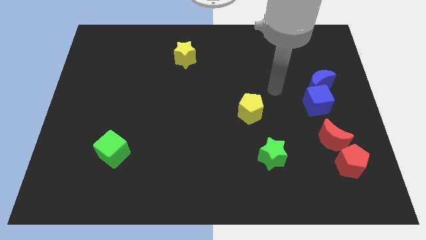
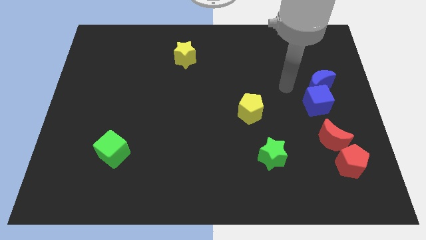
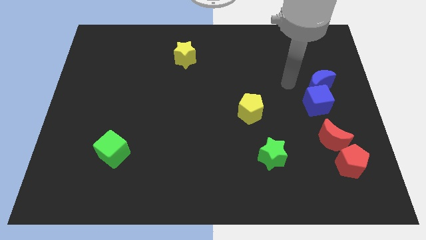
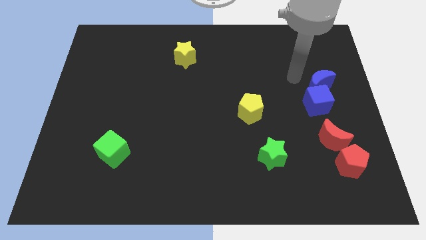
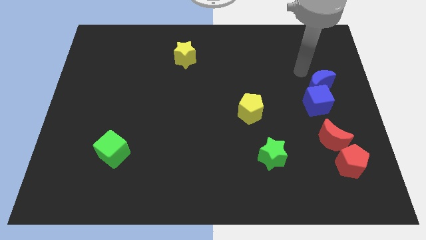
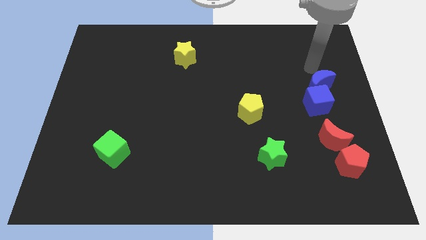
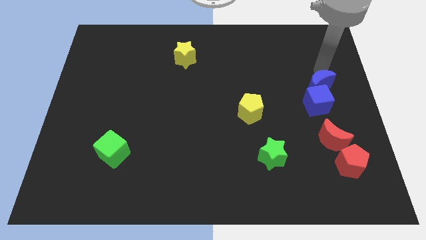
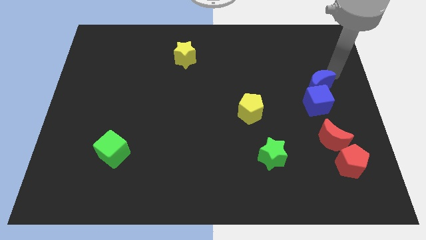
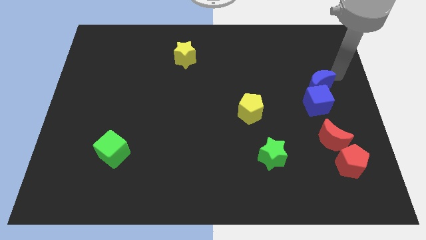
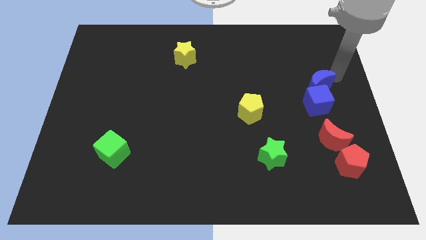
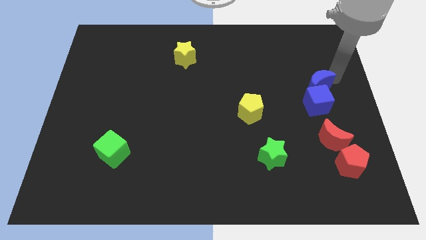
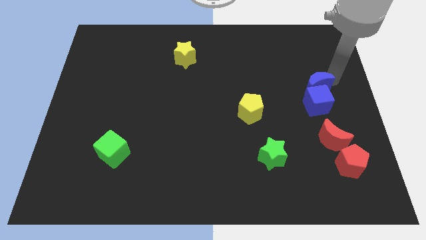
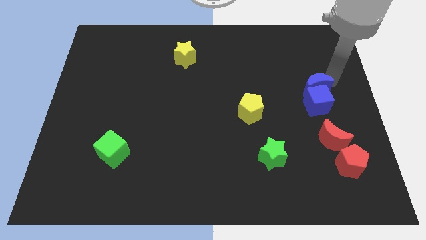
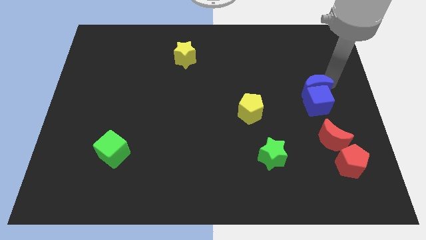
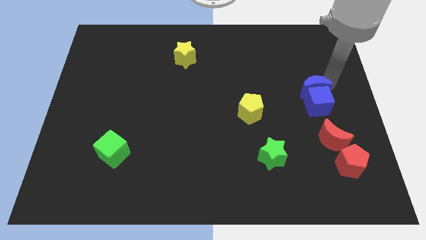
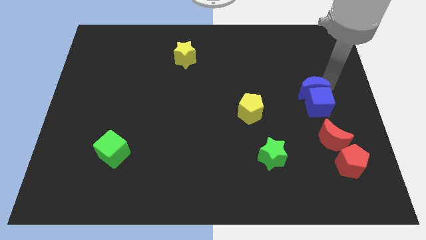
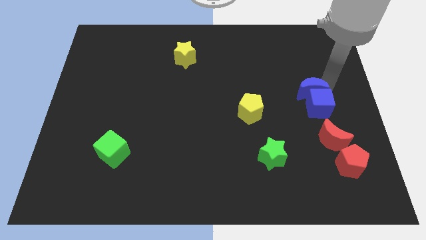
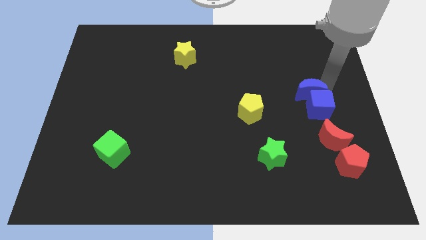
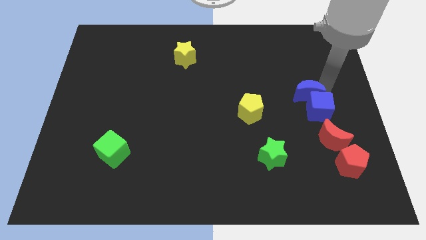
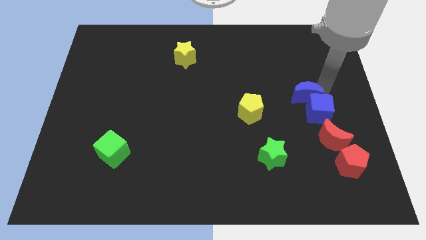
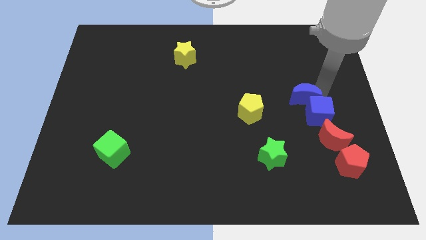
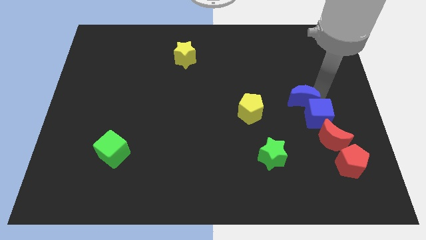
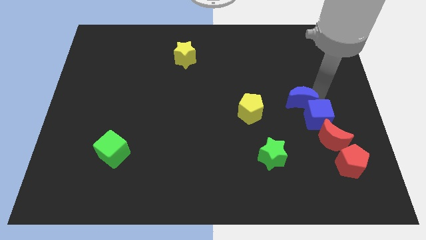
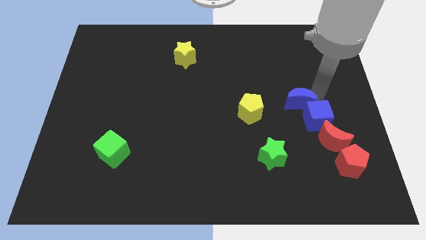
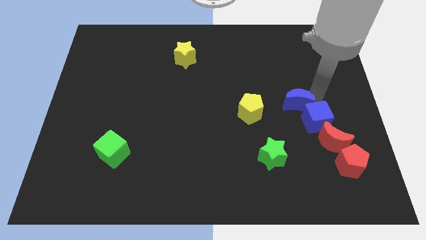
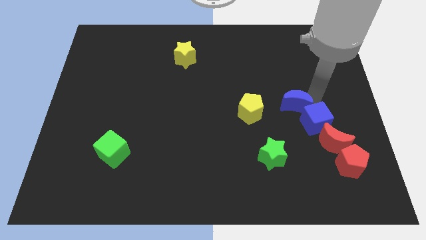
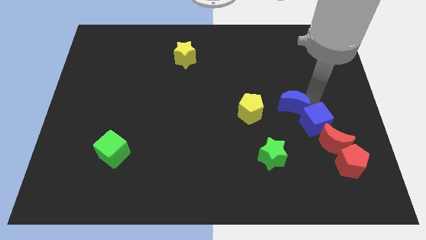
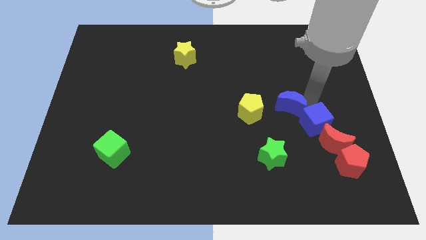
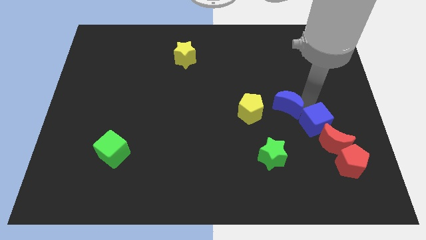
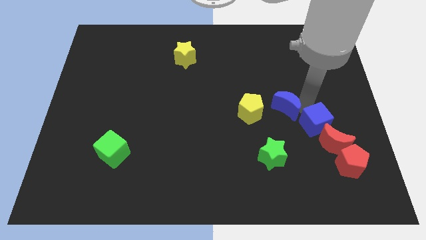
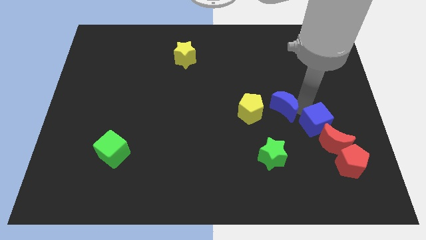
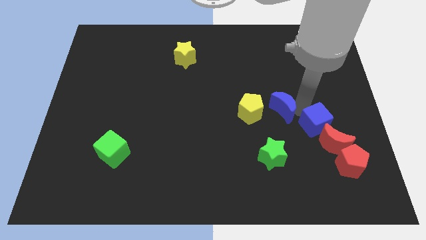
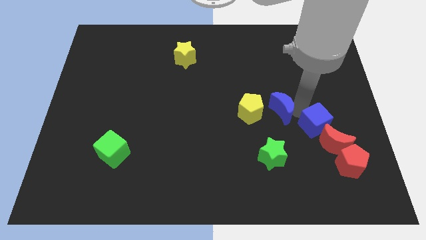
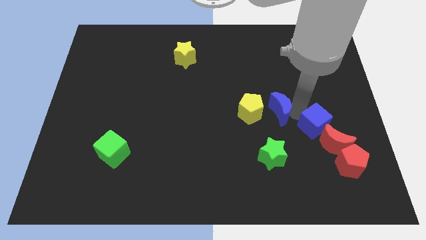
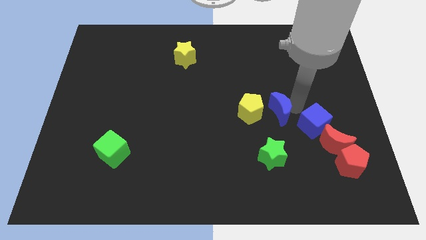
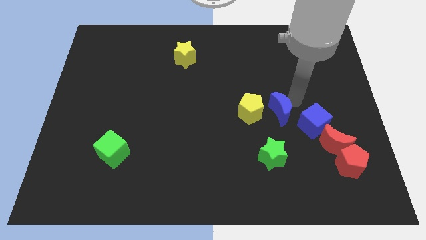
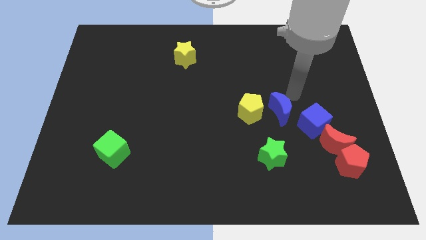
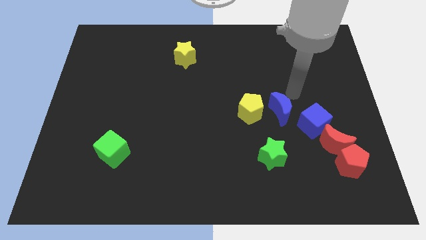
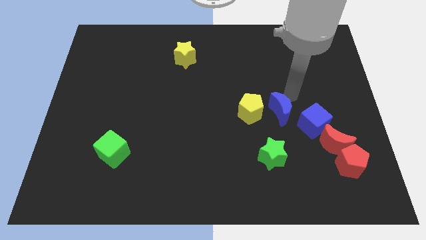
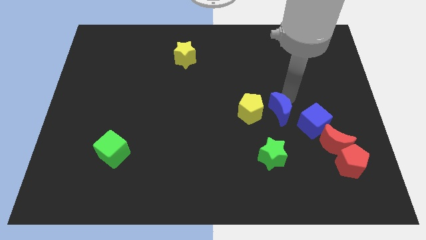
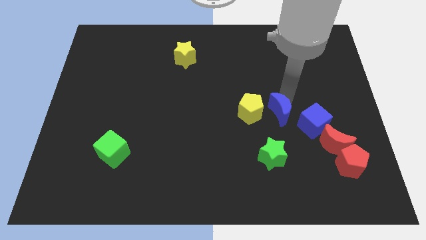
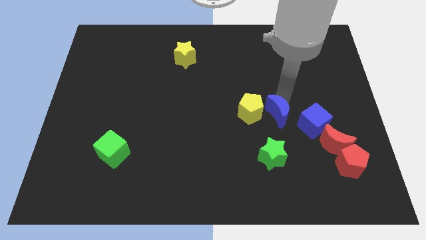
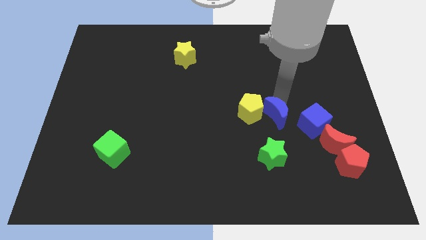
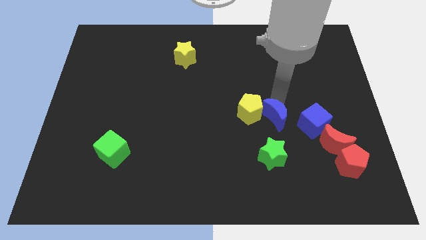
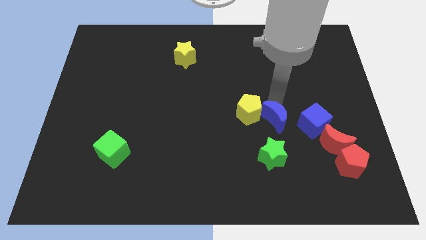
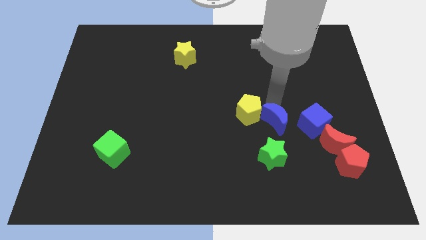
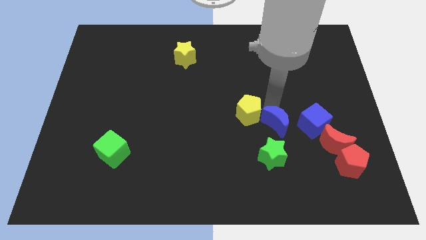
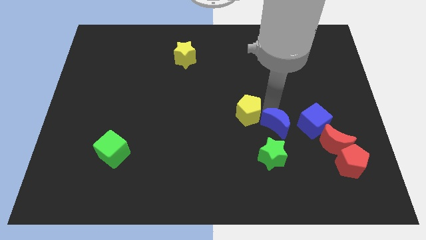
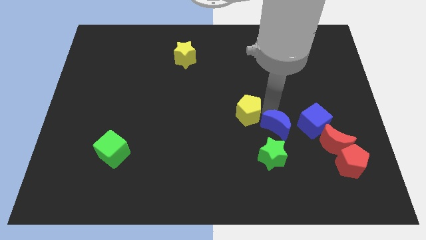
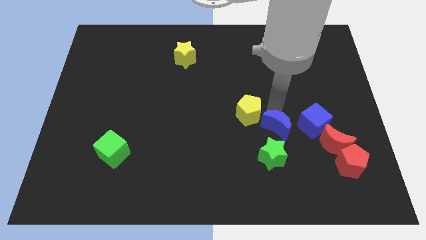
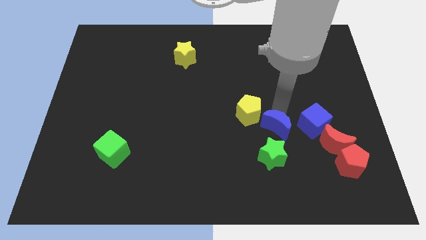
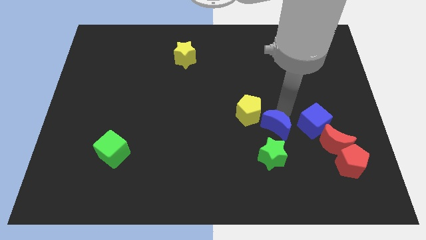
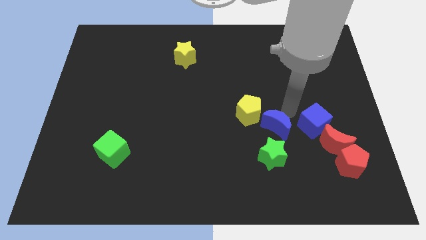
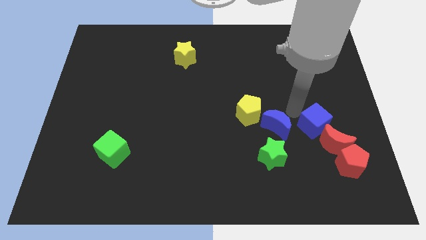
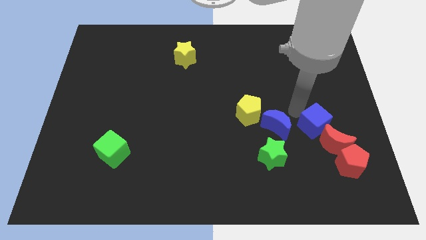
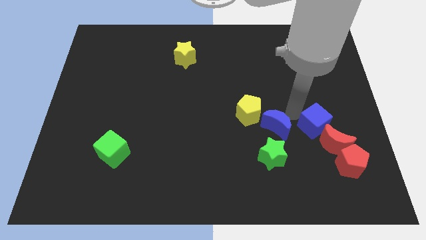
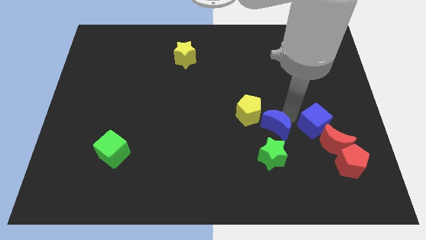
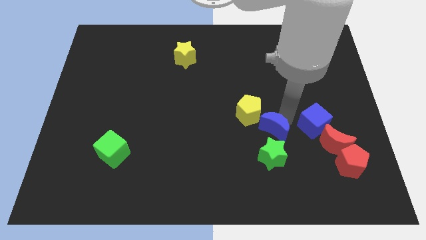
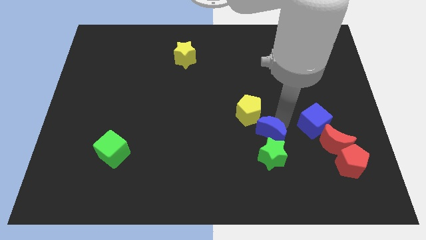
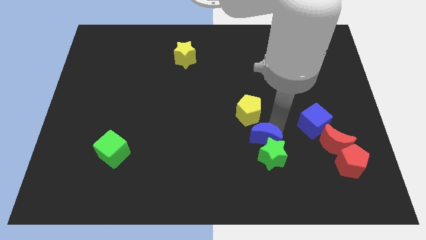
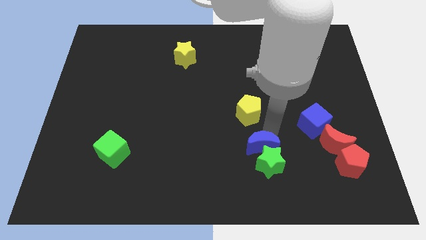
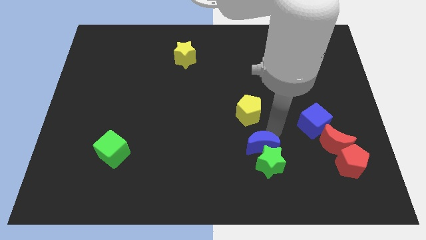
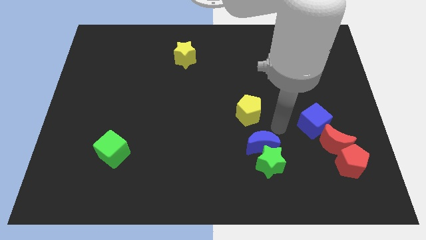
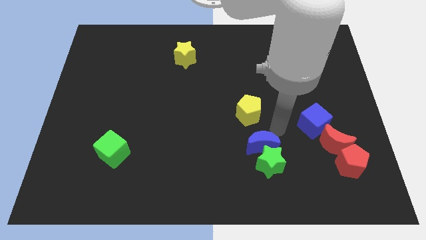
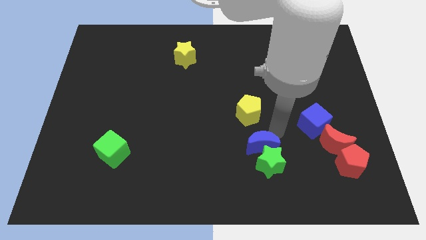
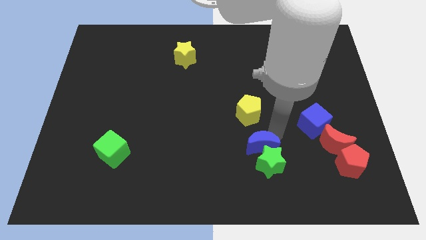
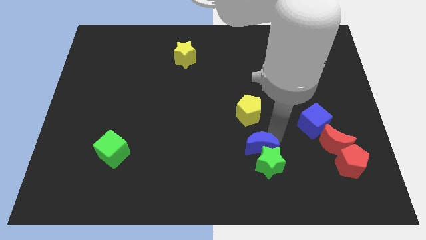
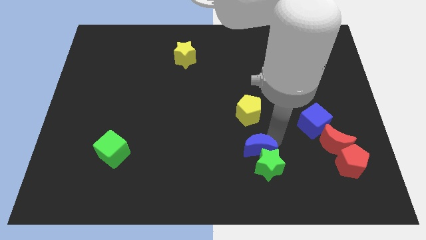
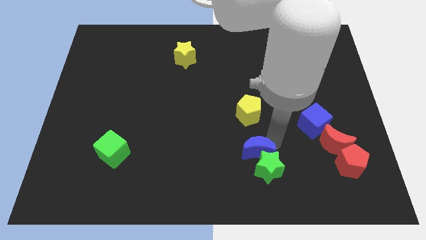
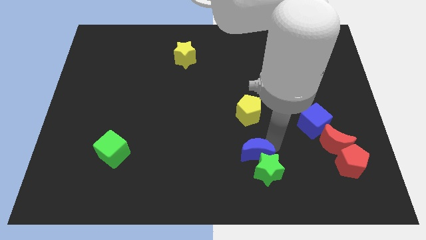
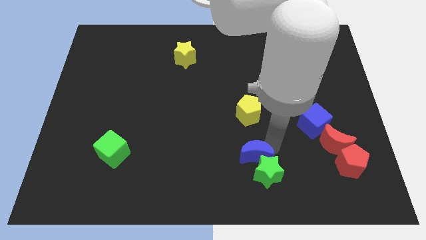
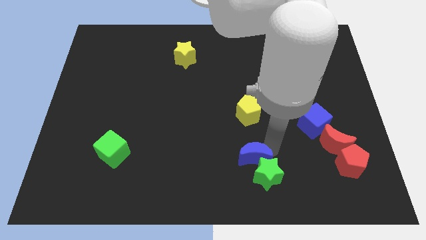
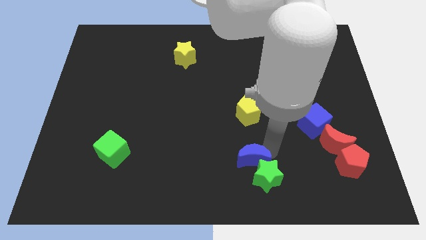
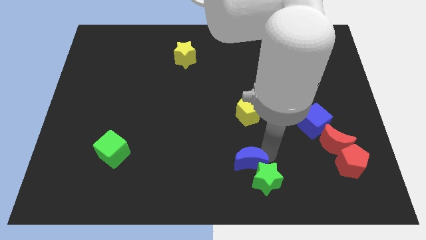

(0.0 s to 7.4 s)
put the blue moon to the bottom
